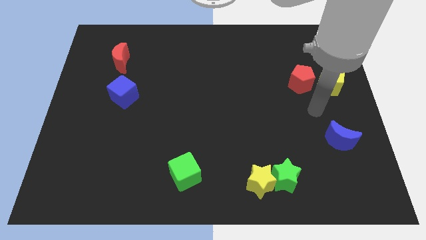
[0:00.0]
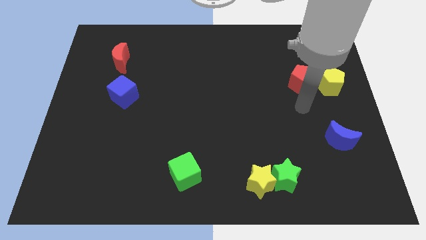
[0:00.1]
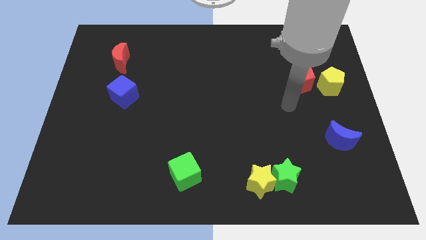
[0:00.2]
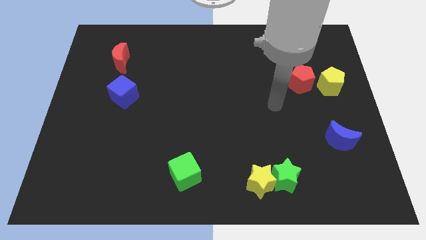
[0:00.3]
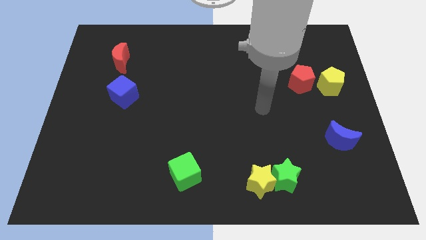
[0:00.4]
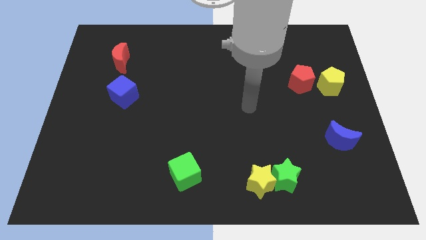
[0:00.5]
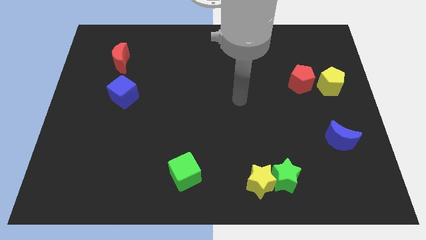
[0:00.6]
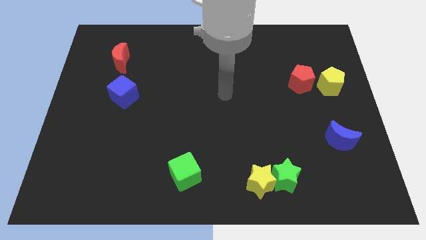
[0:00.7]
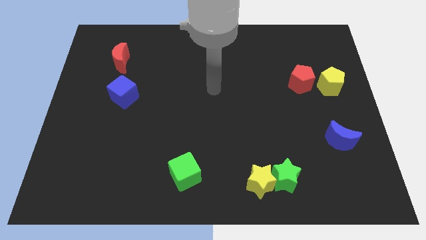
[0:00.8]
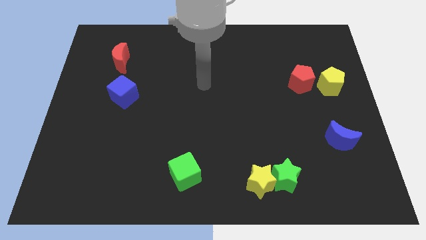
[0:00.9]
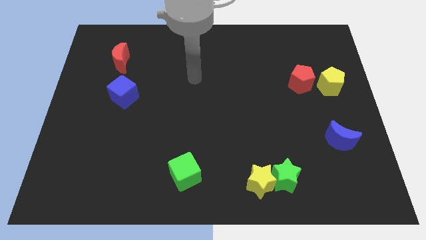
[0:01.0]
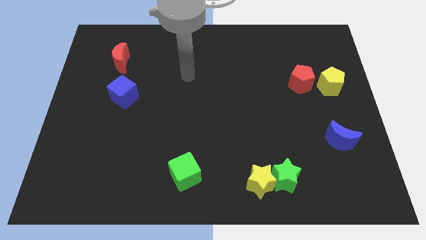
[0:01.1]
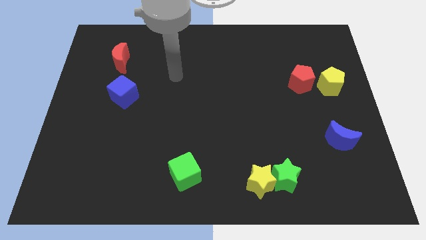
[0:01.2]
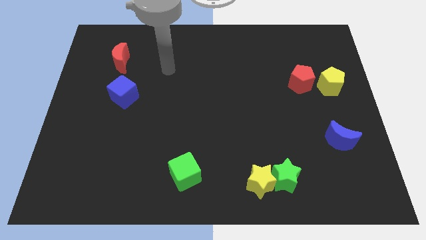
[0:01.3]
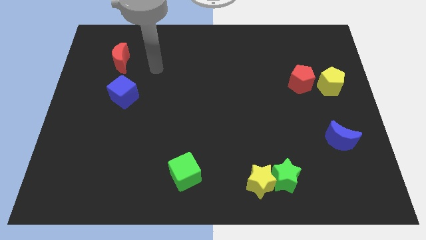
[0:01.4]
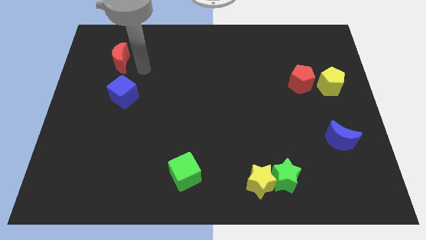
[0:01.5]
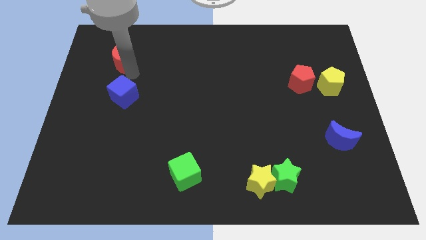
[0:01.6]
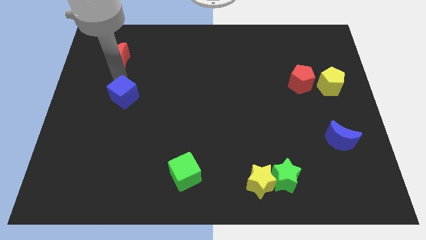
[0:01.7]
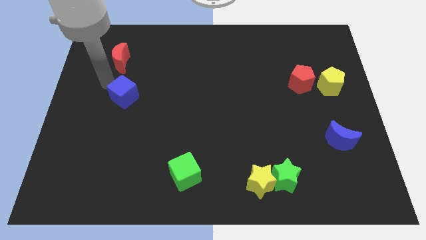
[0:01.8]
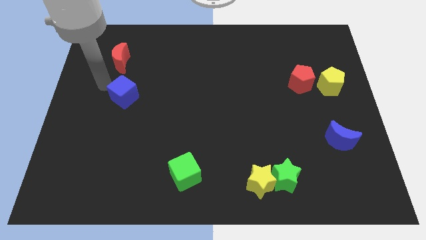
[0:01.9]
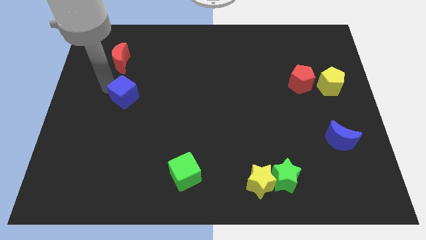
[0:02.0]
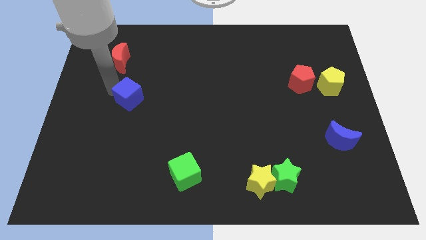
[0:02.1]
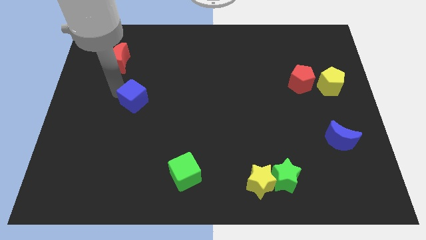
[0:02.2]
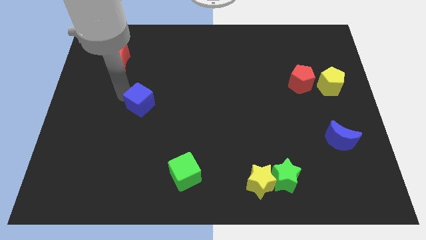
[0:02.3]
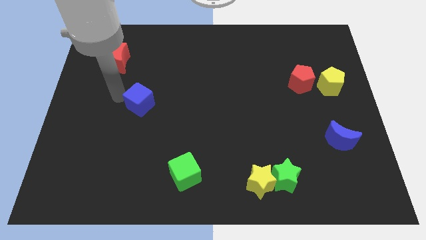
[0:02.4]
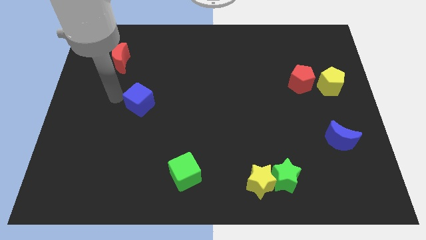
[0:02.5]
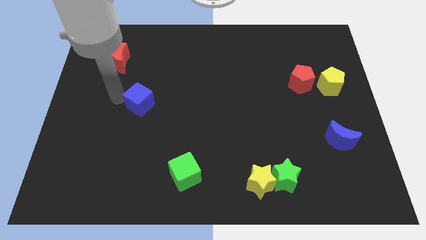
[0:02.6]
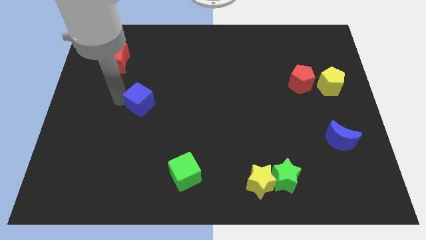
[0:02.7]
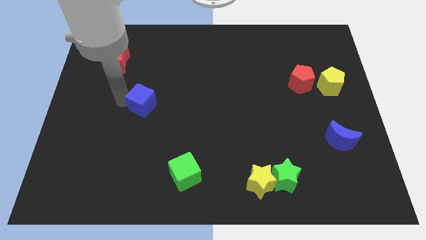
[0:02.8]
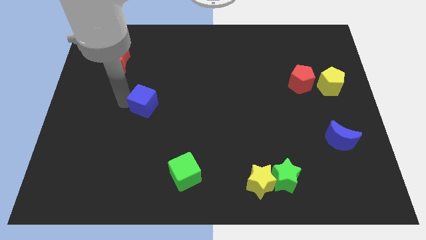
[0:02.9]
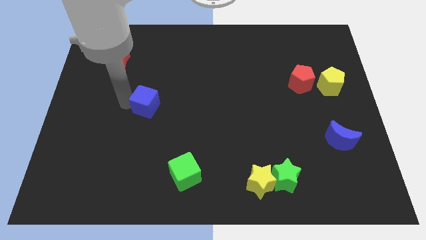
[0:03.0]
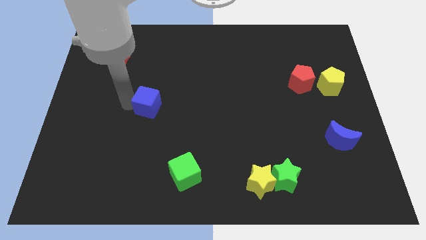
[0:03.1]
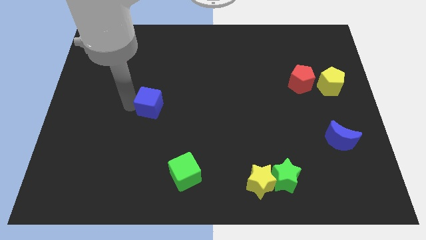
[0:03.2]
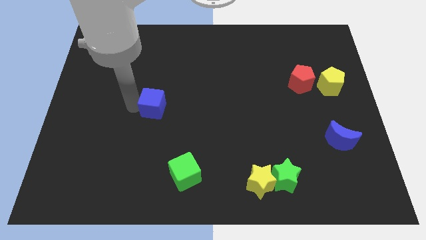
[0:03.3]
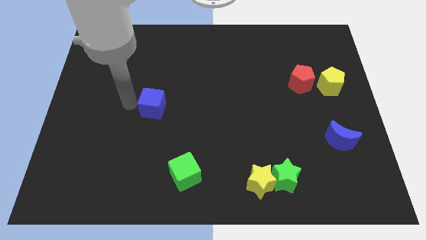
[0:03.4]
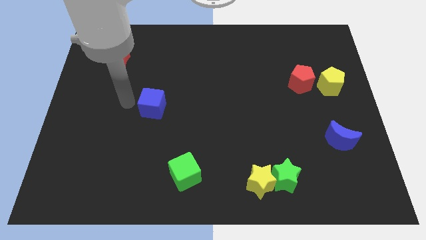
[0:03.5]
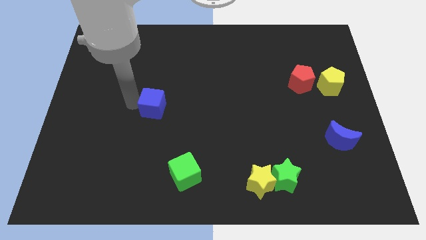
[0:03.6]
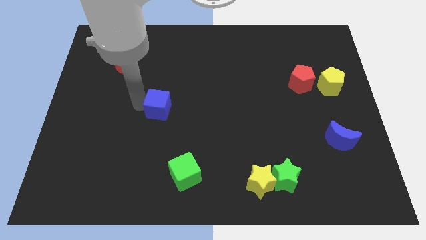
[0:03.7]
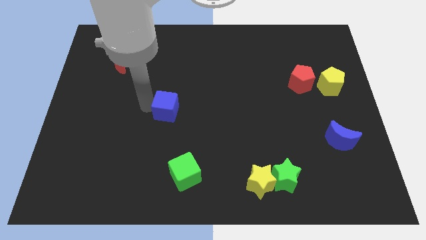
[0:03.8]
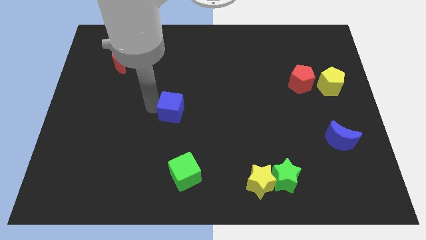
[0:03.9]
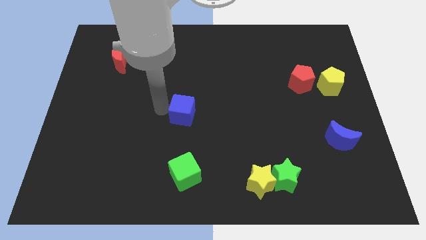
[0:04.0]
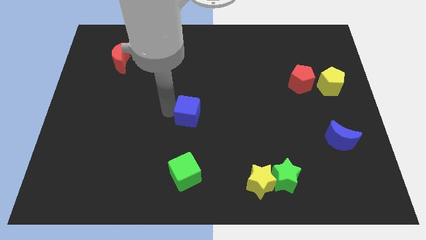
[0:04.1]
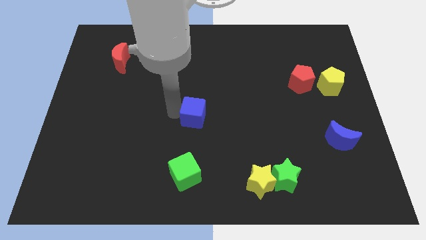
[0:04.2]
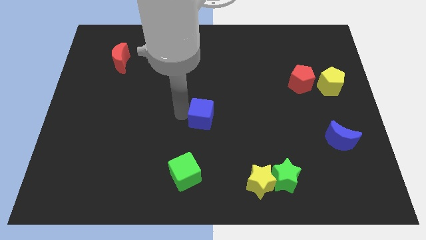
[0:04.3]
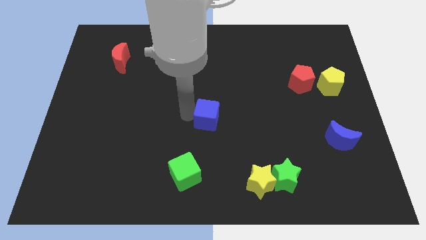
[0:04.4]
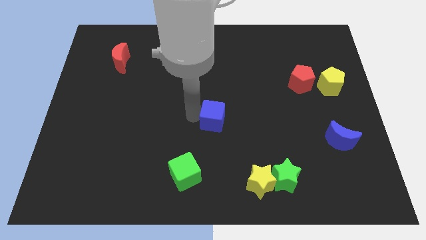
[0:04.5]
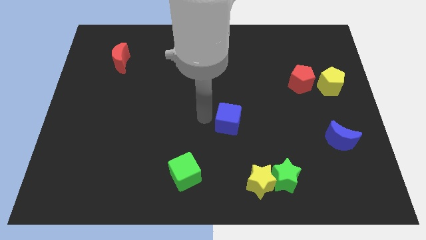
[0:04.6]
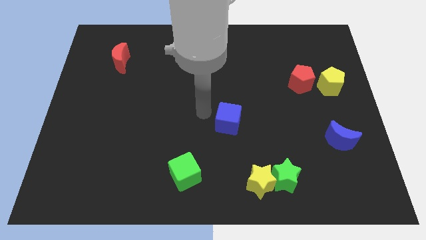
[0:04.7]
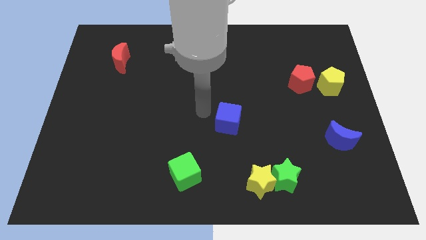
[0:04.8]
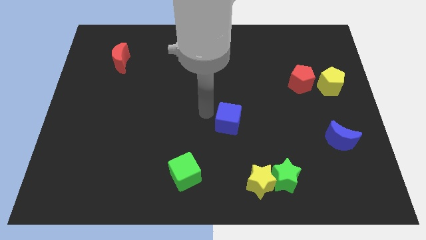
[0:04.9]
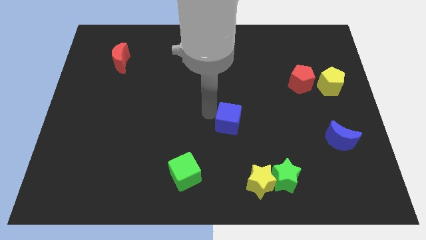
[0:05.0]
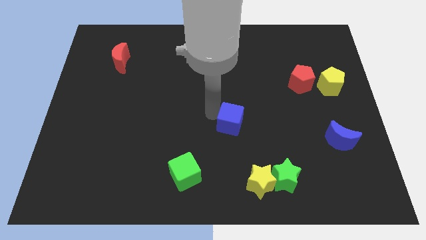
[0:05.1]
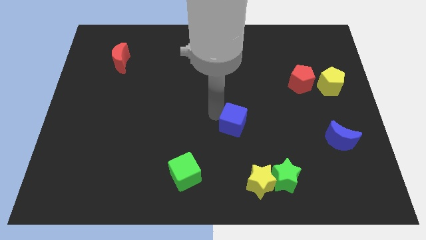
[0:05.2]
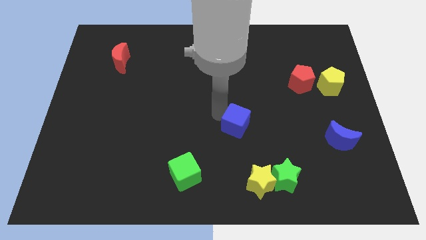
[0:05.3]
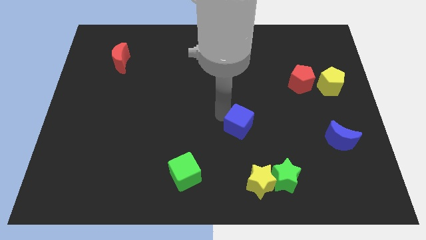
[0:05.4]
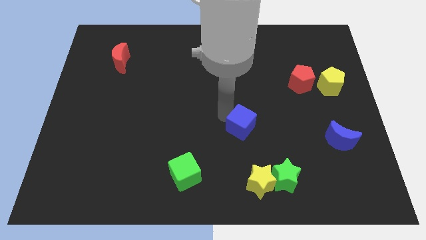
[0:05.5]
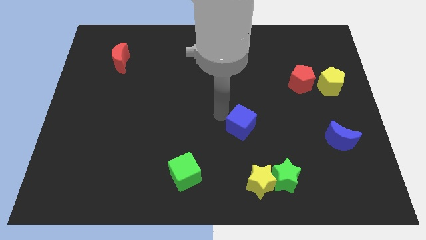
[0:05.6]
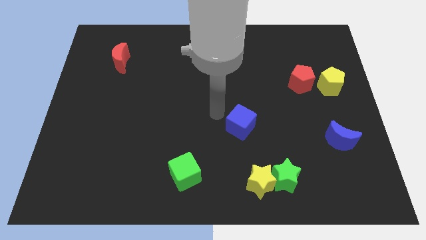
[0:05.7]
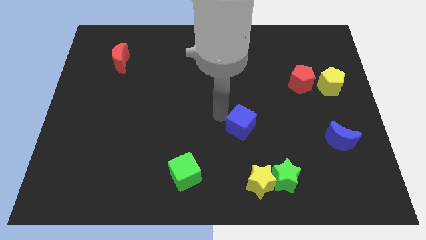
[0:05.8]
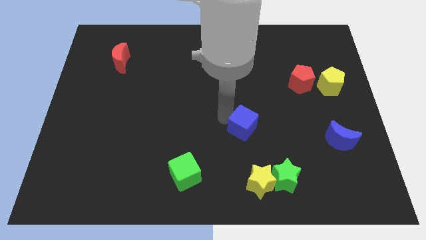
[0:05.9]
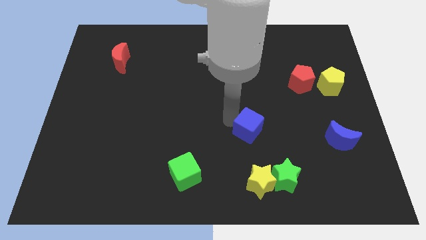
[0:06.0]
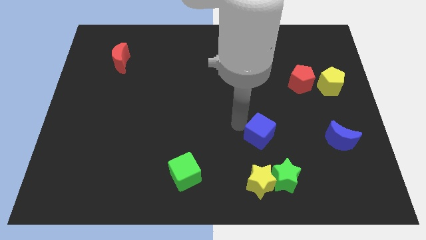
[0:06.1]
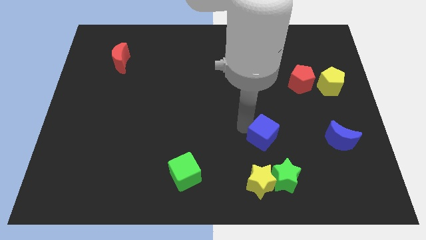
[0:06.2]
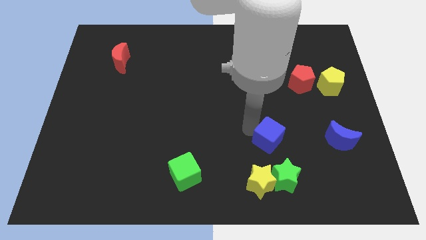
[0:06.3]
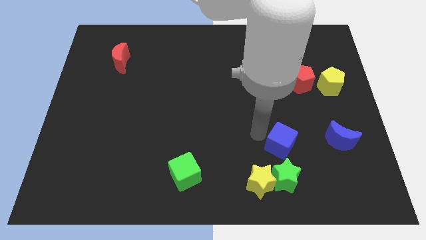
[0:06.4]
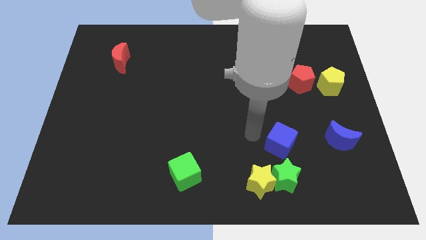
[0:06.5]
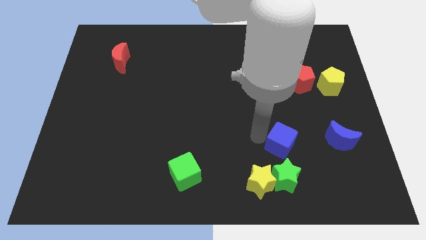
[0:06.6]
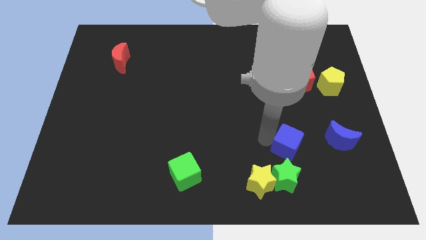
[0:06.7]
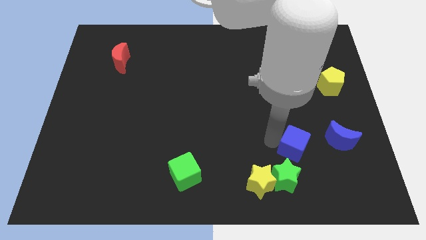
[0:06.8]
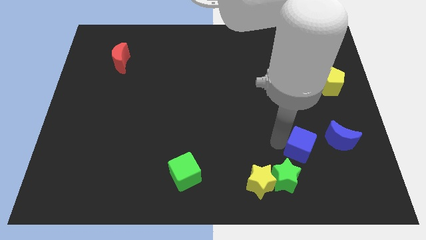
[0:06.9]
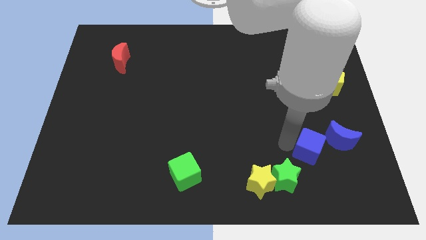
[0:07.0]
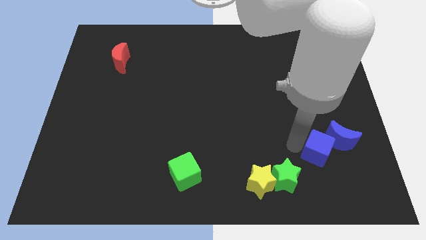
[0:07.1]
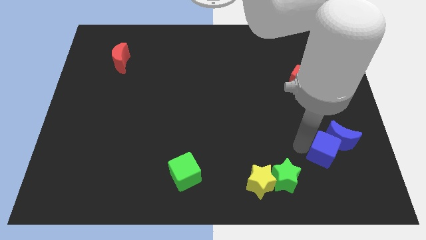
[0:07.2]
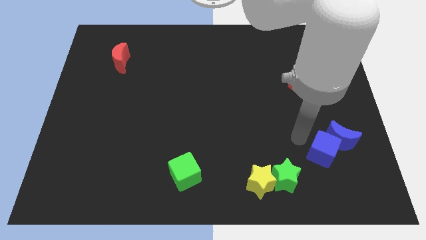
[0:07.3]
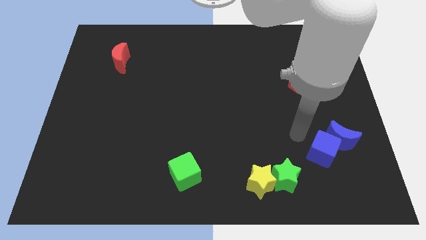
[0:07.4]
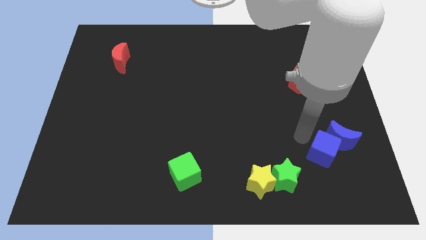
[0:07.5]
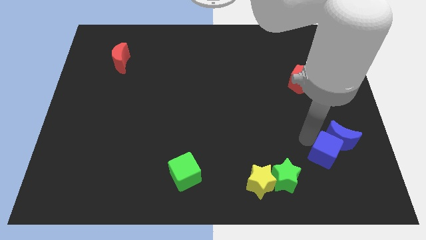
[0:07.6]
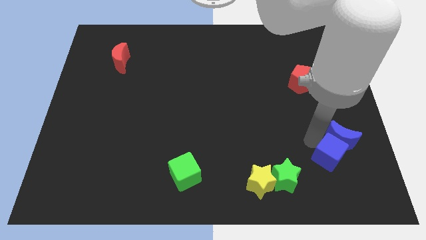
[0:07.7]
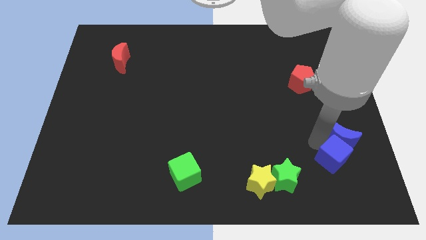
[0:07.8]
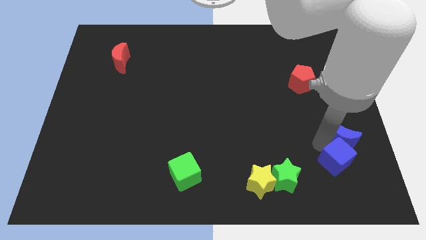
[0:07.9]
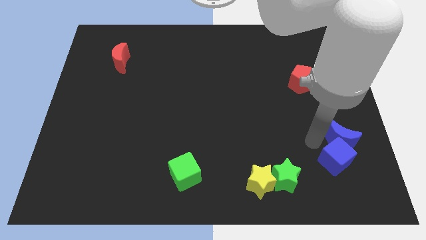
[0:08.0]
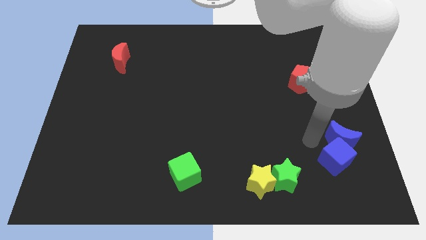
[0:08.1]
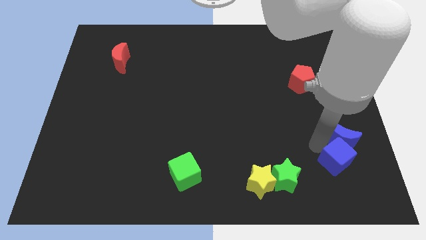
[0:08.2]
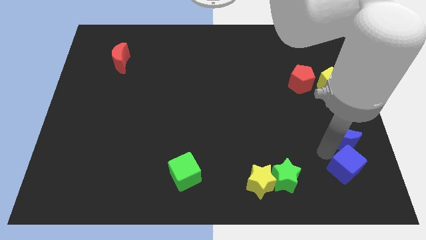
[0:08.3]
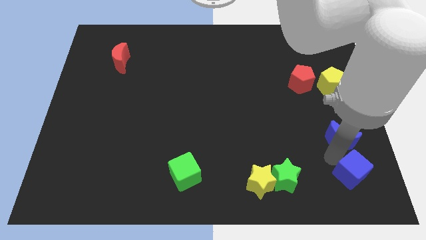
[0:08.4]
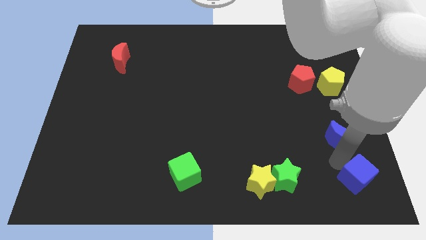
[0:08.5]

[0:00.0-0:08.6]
put the blue cube to the bottom right corner
